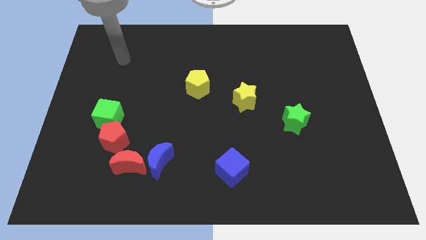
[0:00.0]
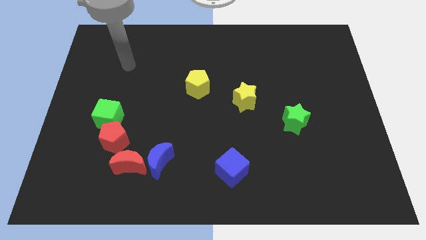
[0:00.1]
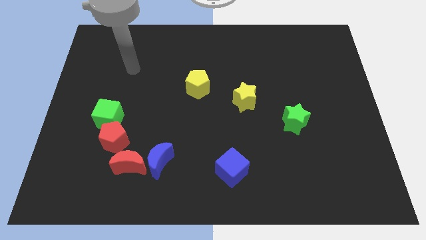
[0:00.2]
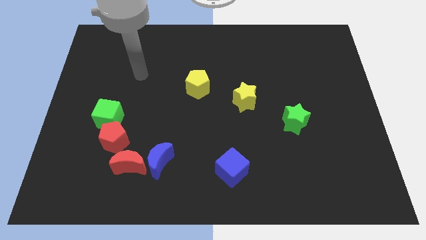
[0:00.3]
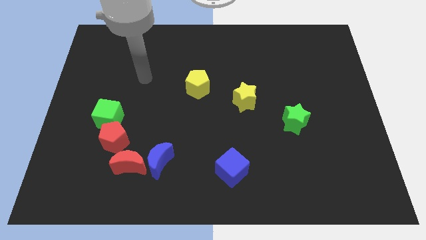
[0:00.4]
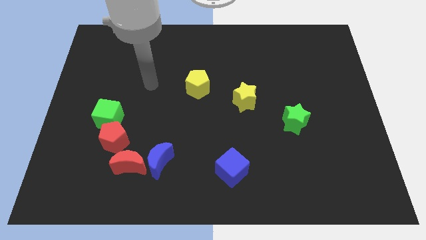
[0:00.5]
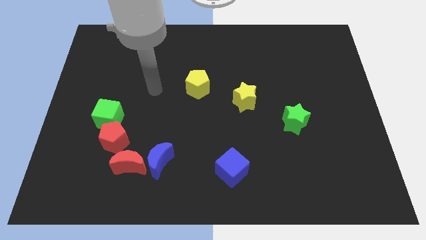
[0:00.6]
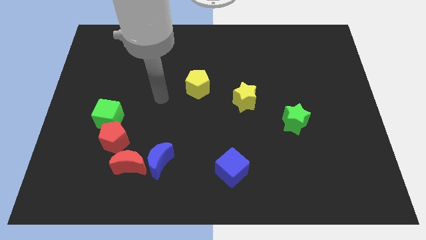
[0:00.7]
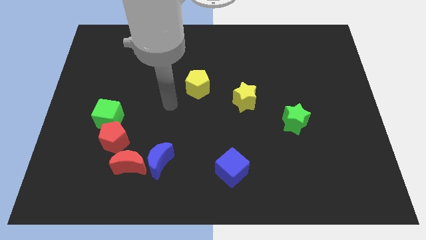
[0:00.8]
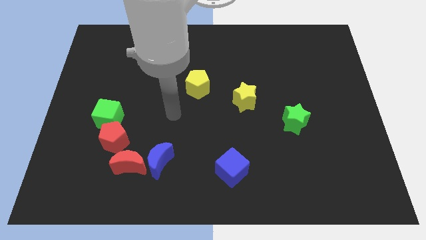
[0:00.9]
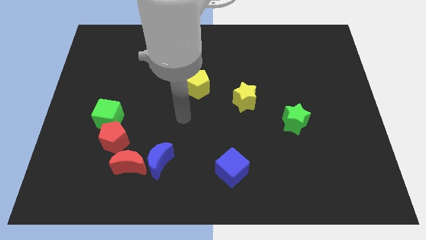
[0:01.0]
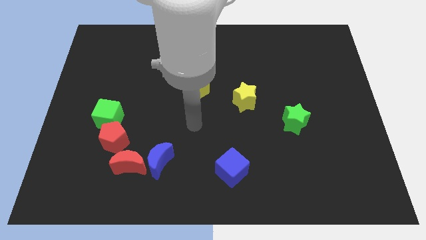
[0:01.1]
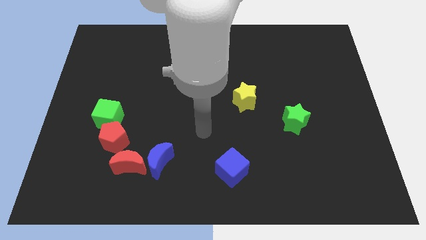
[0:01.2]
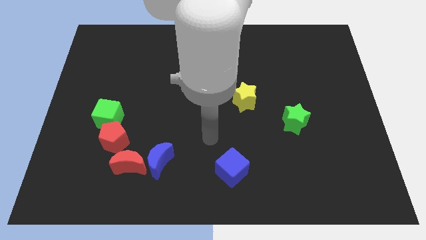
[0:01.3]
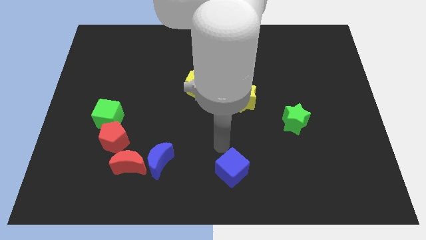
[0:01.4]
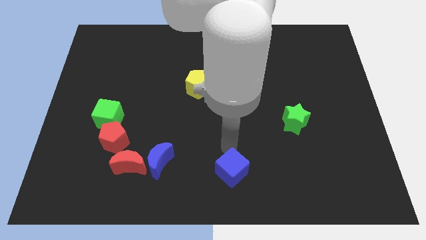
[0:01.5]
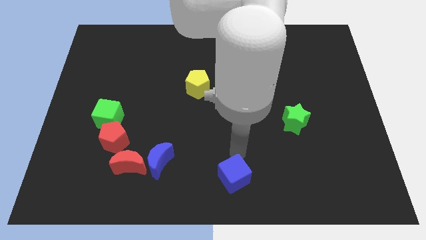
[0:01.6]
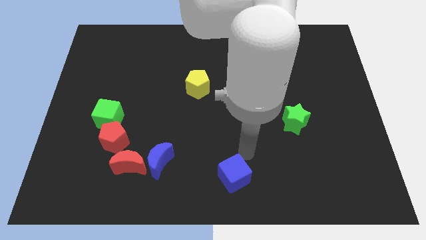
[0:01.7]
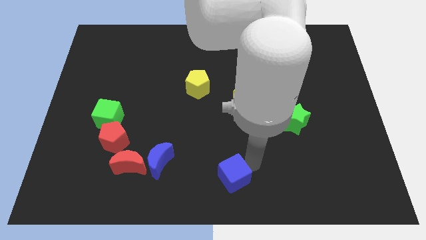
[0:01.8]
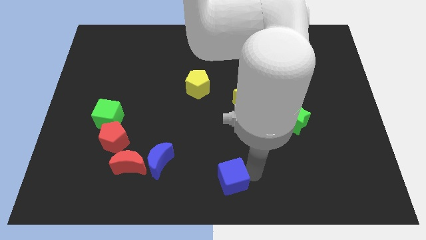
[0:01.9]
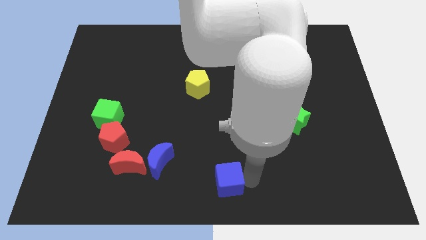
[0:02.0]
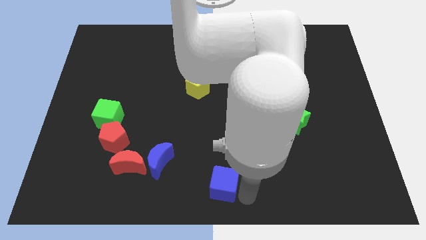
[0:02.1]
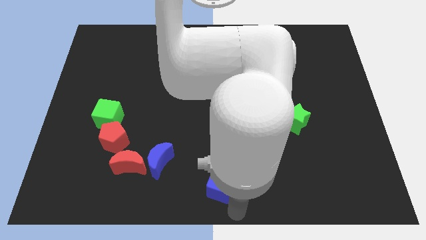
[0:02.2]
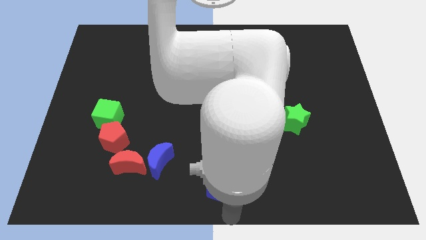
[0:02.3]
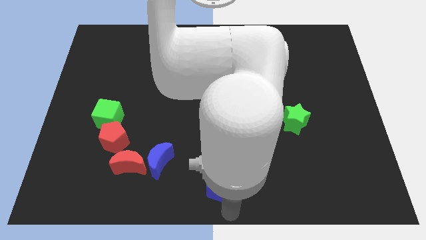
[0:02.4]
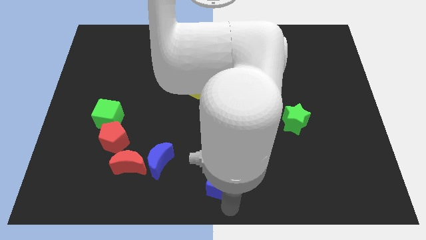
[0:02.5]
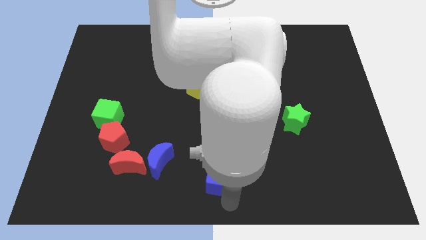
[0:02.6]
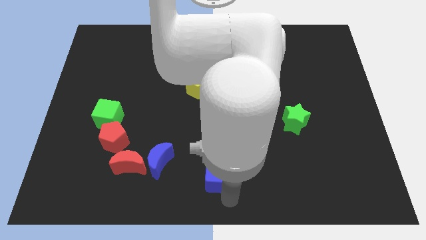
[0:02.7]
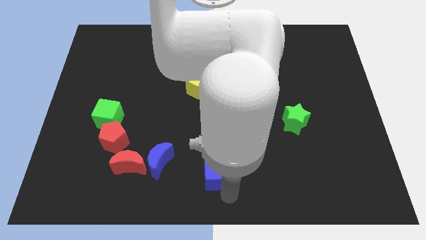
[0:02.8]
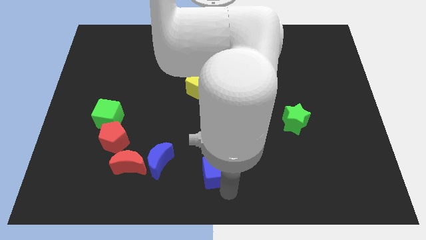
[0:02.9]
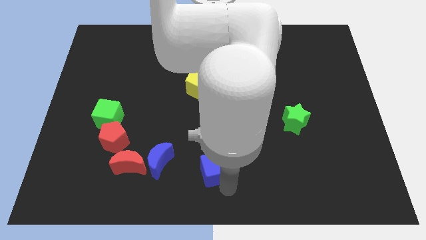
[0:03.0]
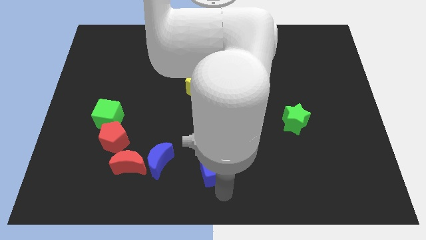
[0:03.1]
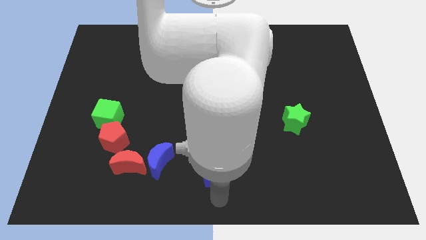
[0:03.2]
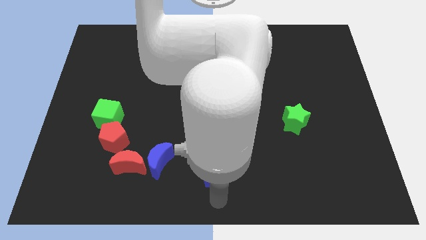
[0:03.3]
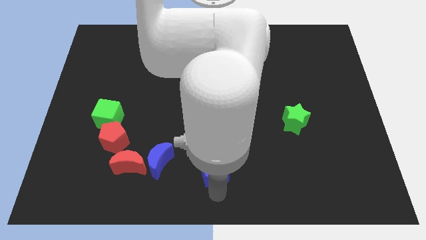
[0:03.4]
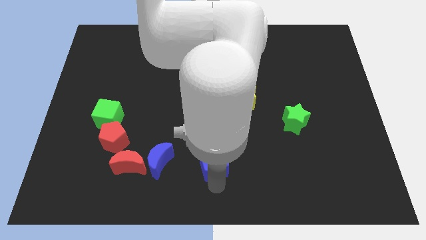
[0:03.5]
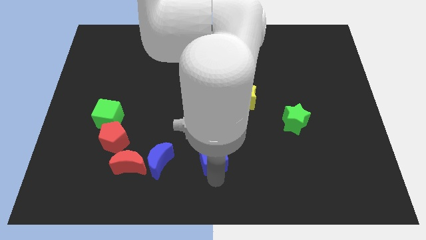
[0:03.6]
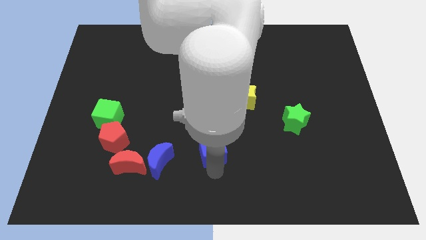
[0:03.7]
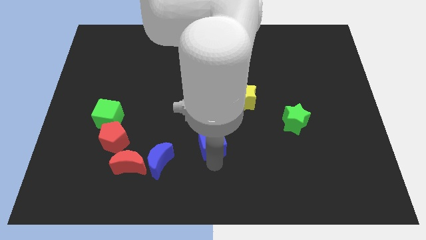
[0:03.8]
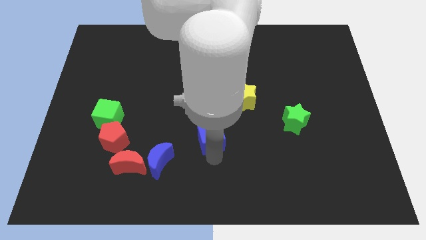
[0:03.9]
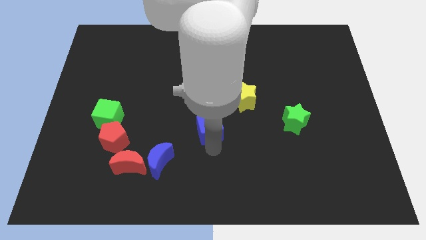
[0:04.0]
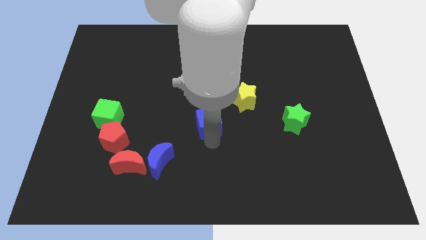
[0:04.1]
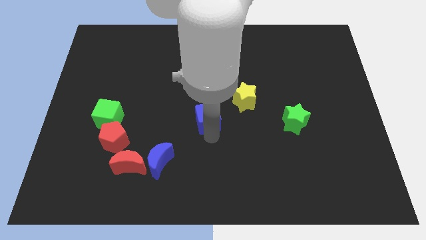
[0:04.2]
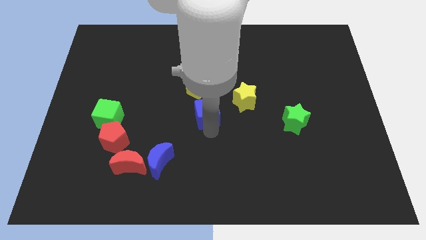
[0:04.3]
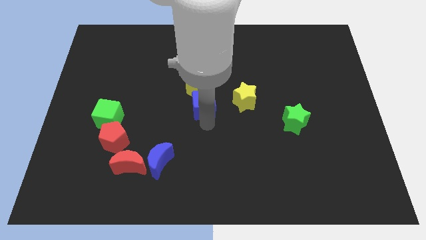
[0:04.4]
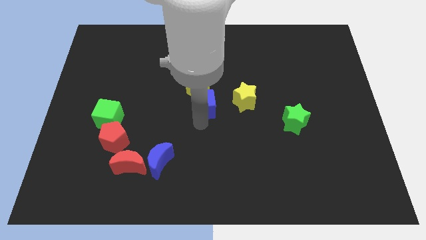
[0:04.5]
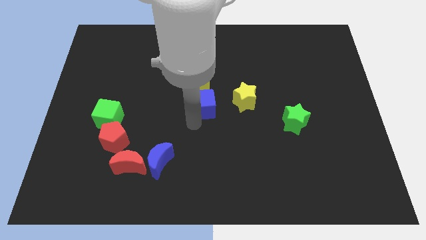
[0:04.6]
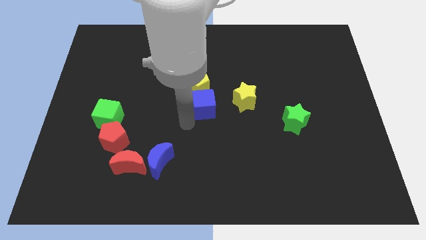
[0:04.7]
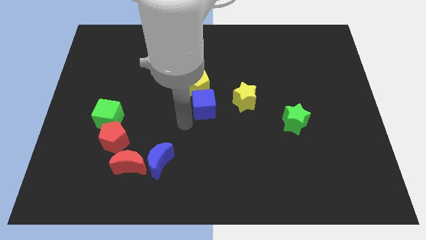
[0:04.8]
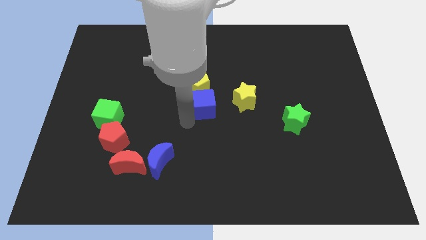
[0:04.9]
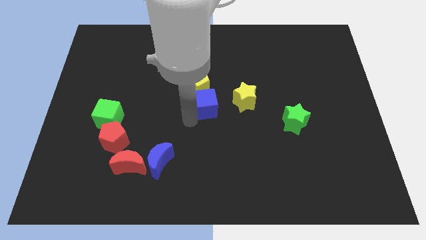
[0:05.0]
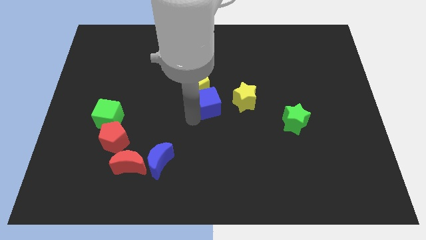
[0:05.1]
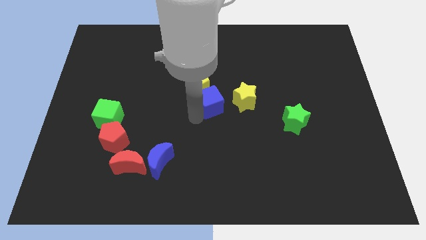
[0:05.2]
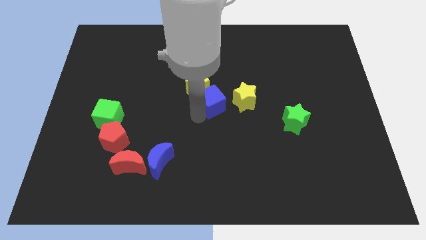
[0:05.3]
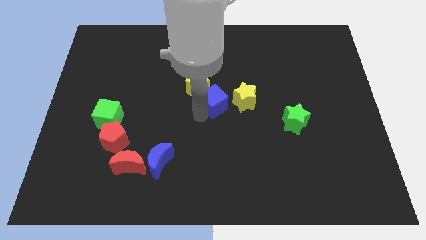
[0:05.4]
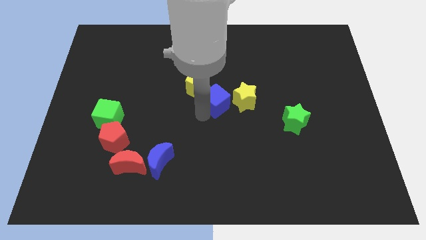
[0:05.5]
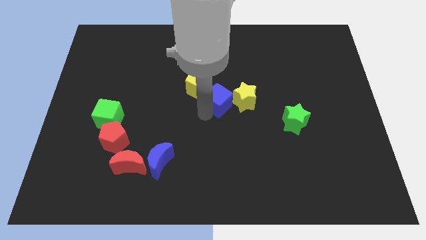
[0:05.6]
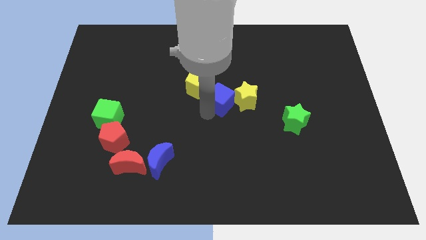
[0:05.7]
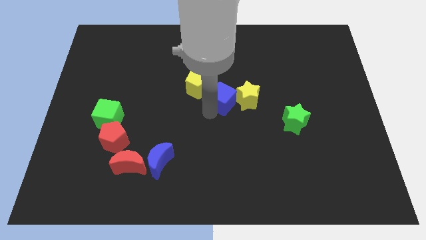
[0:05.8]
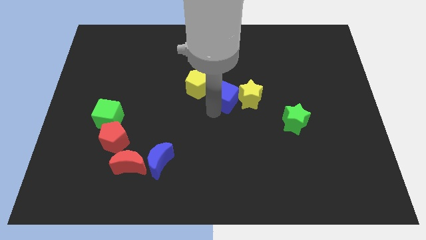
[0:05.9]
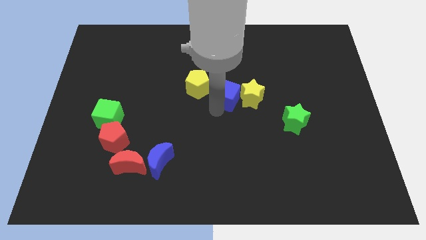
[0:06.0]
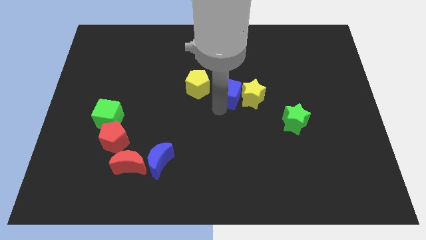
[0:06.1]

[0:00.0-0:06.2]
slide the blue cube up

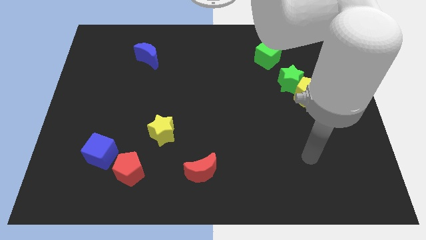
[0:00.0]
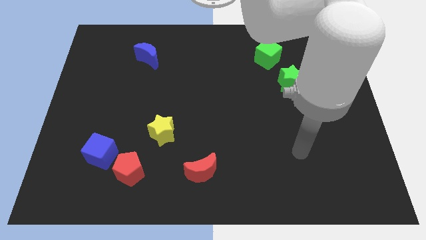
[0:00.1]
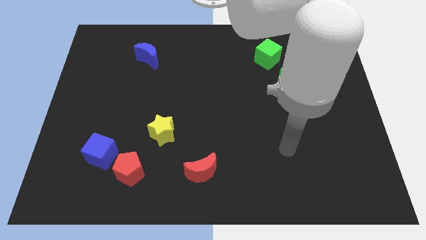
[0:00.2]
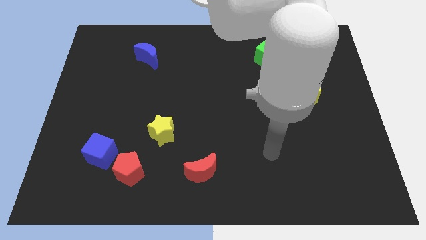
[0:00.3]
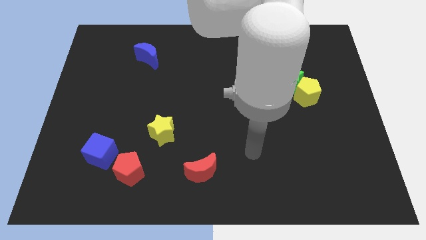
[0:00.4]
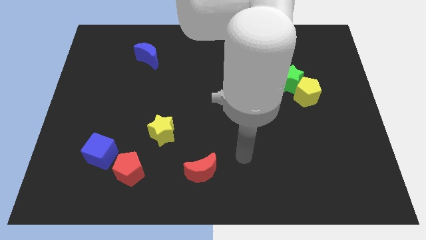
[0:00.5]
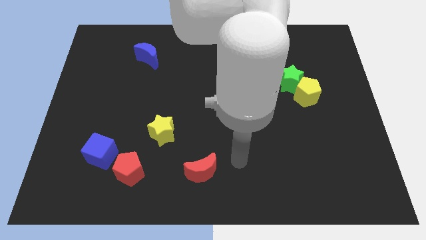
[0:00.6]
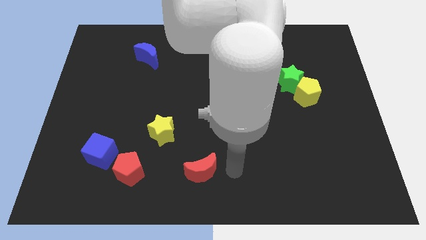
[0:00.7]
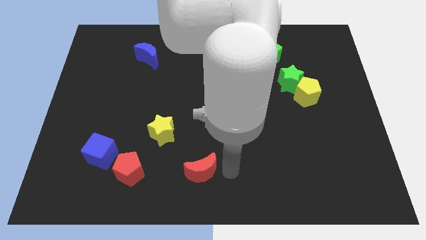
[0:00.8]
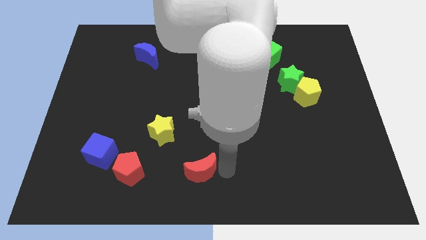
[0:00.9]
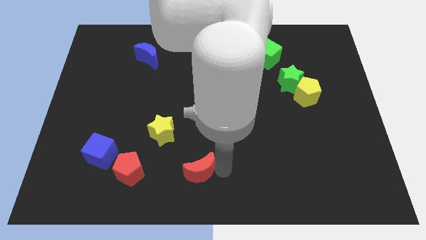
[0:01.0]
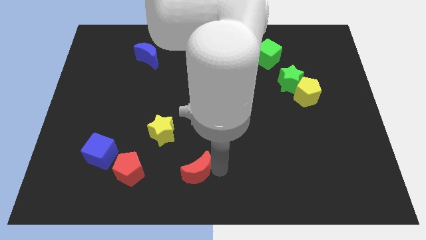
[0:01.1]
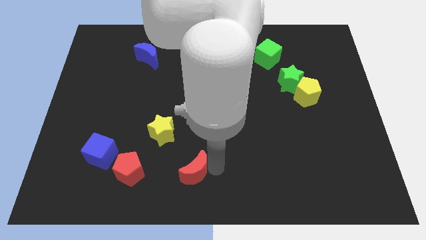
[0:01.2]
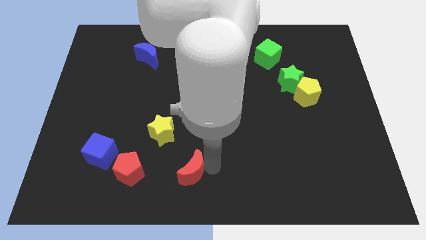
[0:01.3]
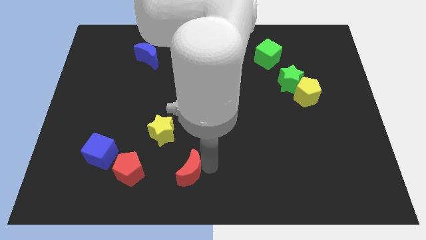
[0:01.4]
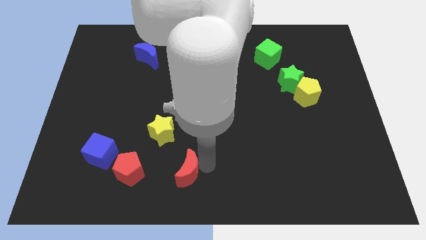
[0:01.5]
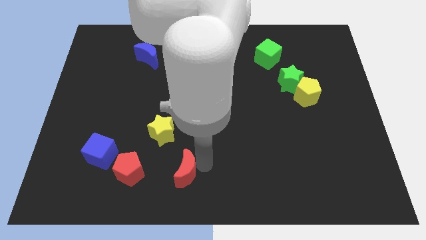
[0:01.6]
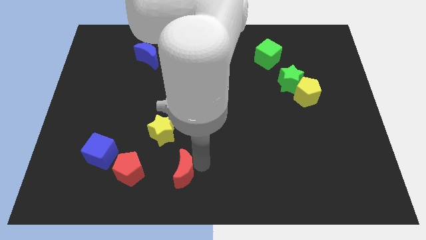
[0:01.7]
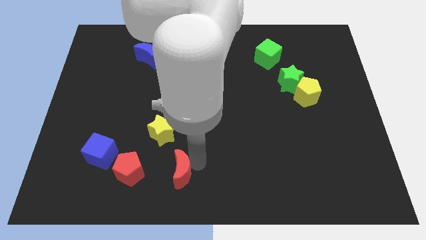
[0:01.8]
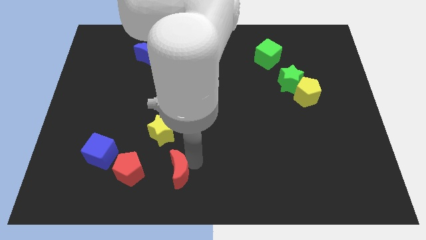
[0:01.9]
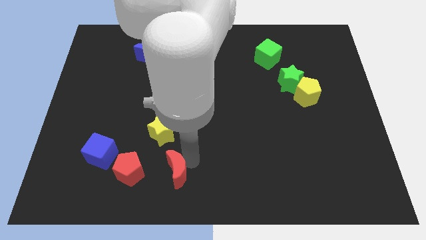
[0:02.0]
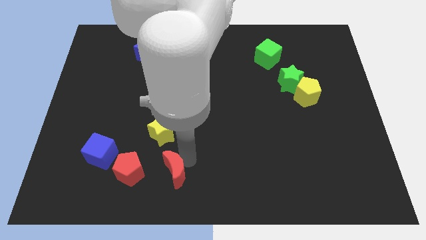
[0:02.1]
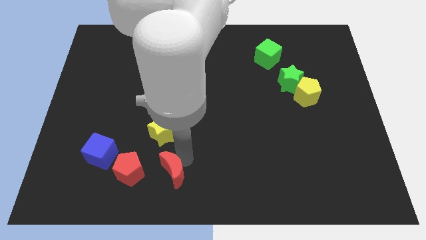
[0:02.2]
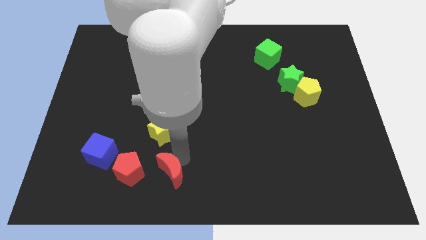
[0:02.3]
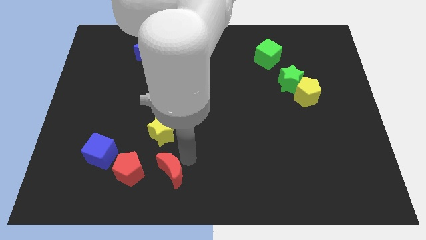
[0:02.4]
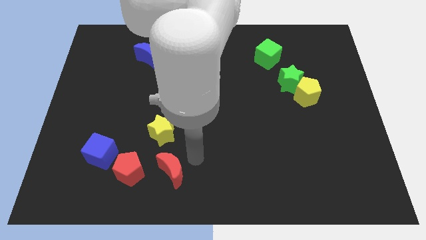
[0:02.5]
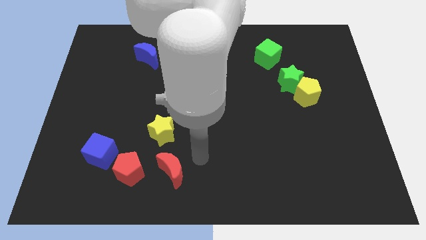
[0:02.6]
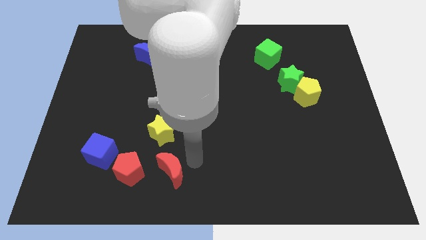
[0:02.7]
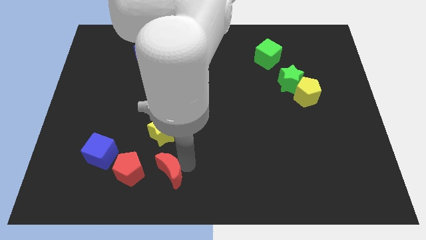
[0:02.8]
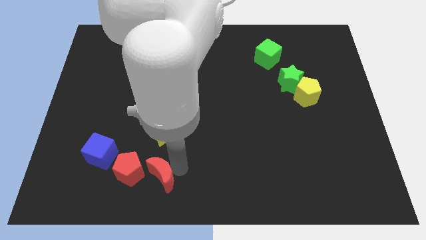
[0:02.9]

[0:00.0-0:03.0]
slightly move the red moon left
